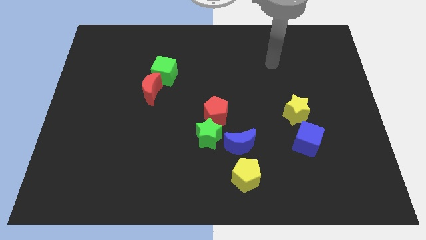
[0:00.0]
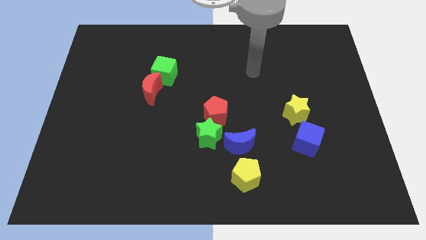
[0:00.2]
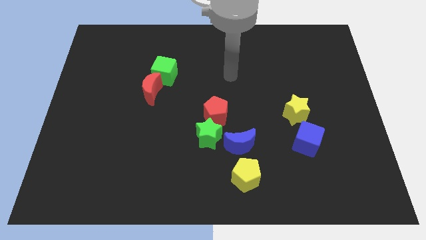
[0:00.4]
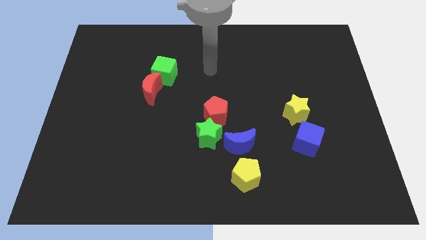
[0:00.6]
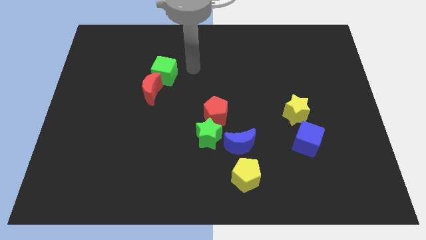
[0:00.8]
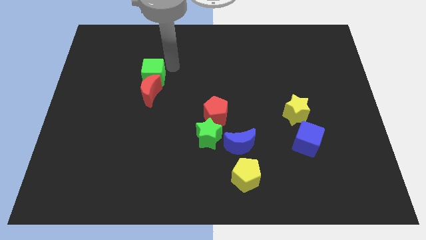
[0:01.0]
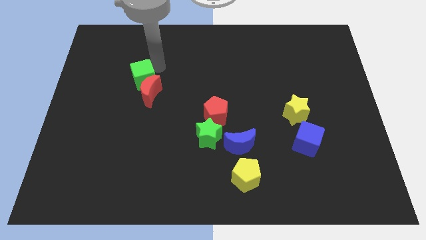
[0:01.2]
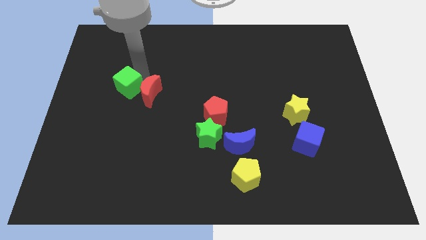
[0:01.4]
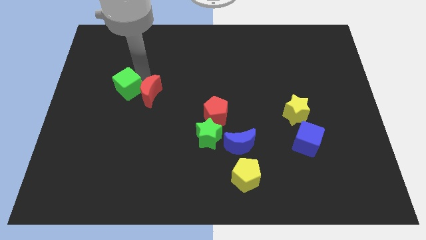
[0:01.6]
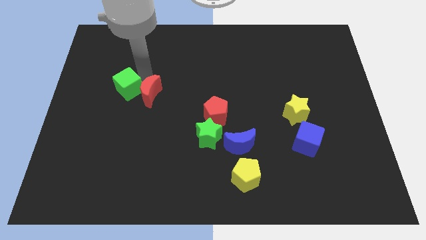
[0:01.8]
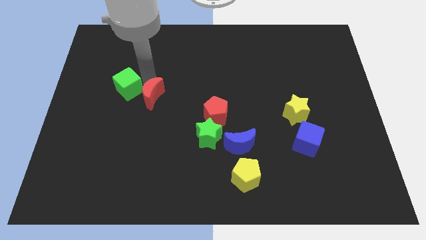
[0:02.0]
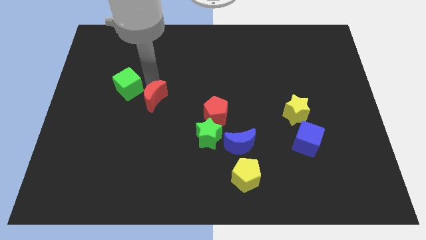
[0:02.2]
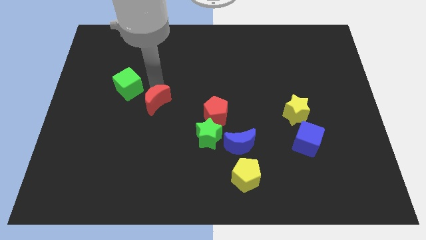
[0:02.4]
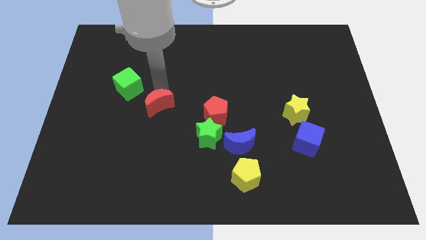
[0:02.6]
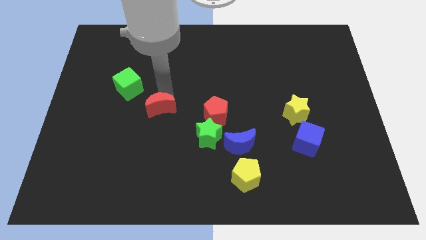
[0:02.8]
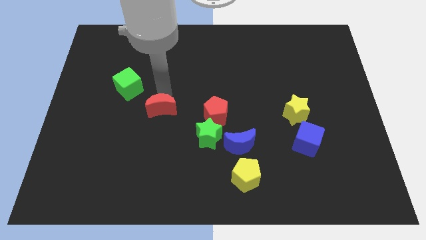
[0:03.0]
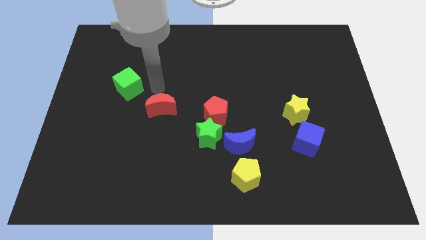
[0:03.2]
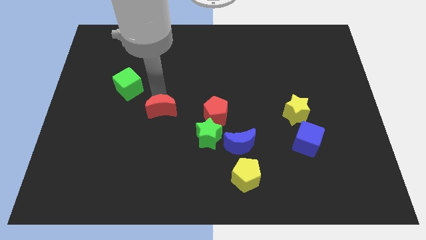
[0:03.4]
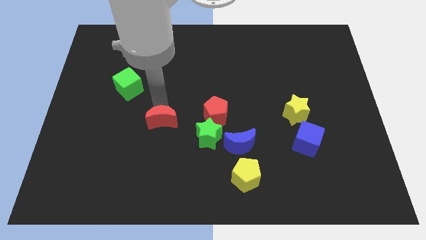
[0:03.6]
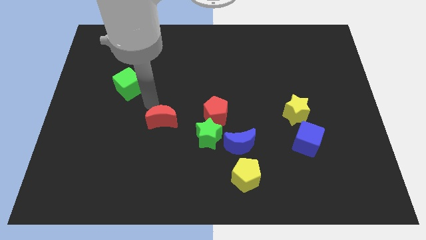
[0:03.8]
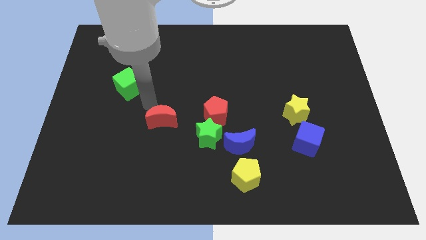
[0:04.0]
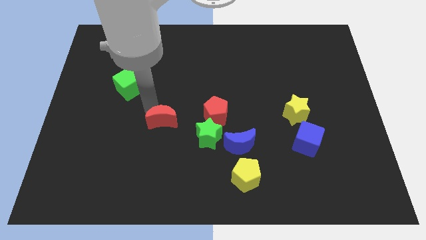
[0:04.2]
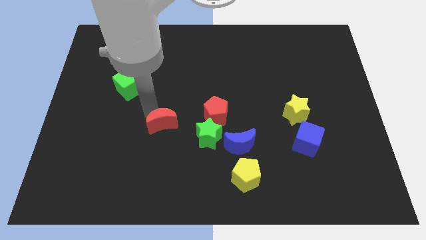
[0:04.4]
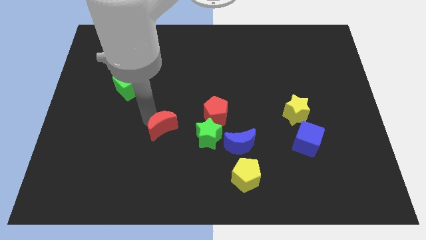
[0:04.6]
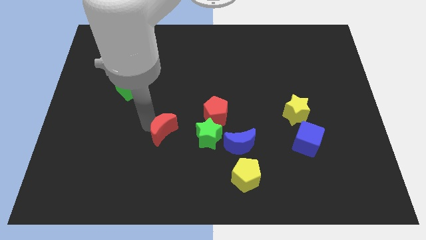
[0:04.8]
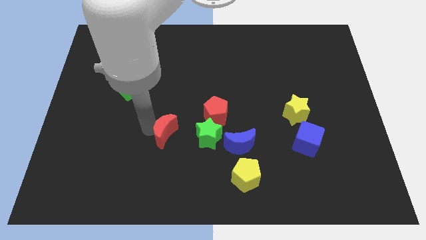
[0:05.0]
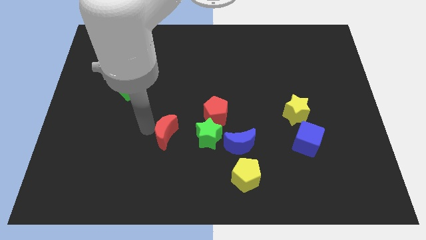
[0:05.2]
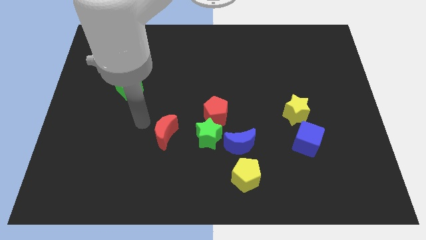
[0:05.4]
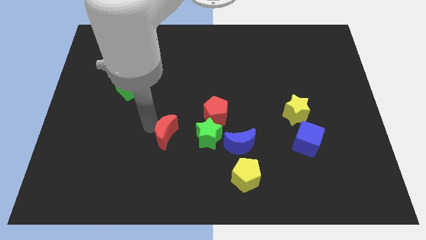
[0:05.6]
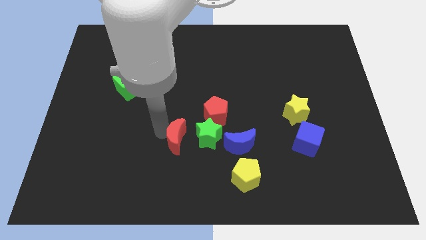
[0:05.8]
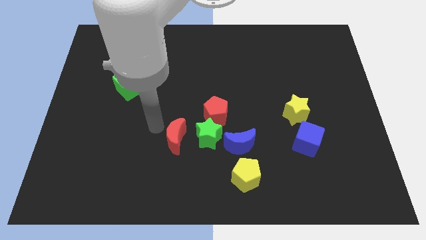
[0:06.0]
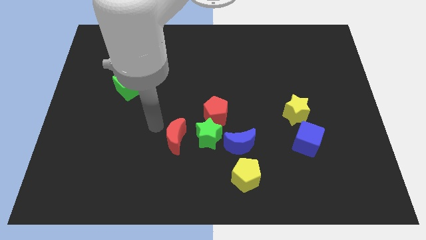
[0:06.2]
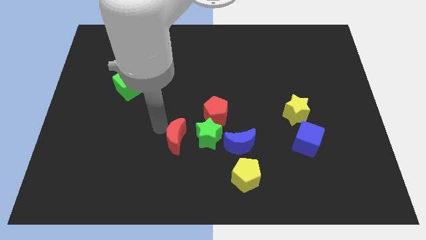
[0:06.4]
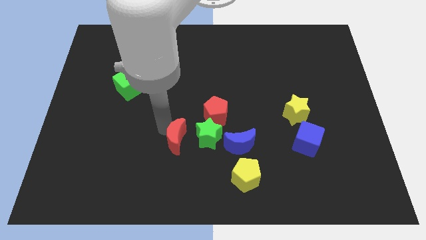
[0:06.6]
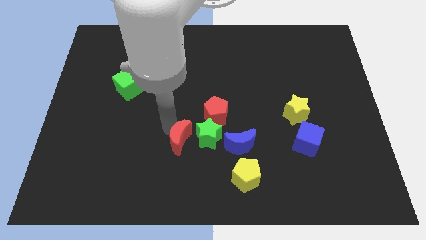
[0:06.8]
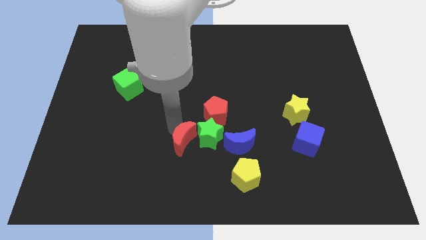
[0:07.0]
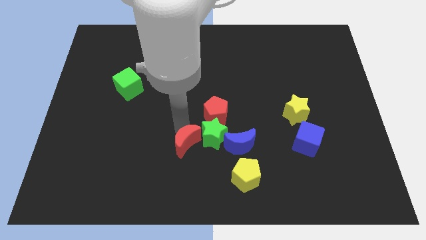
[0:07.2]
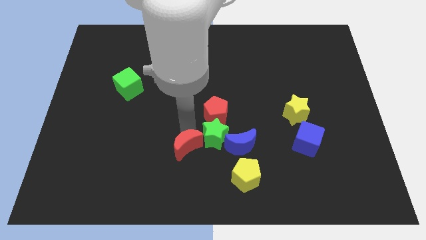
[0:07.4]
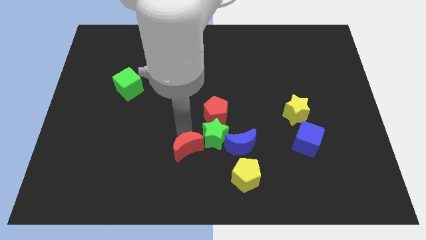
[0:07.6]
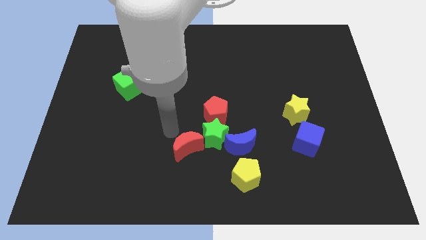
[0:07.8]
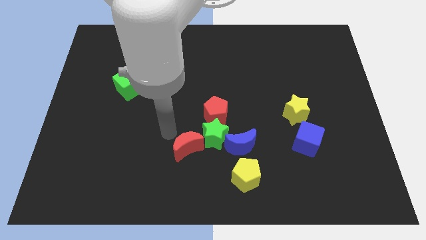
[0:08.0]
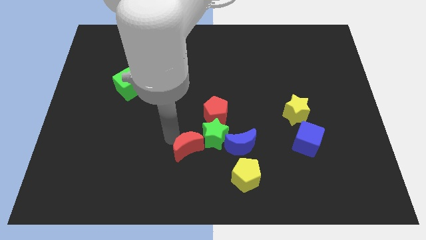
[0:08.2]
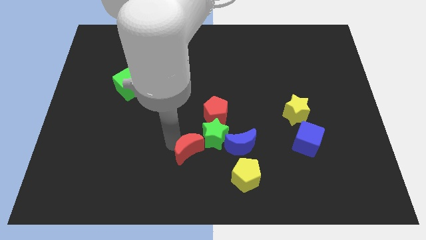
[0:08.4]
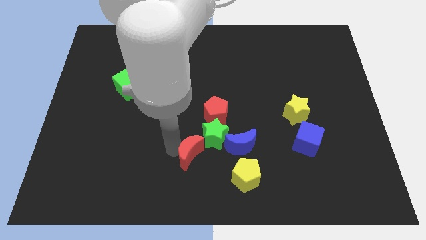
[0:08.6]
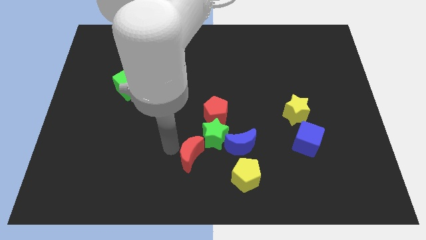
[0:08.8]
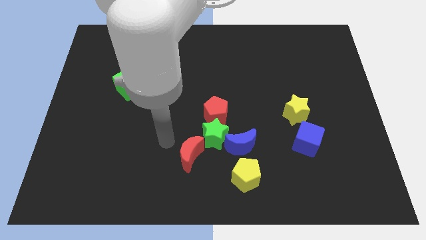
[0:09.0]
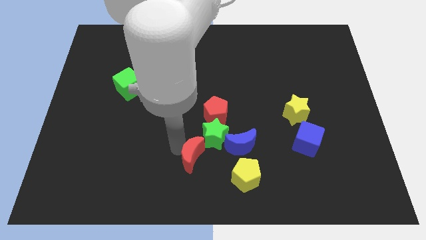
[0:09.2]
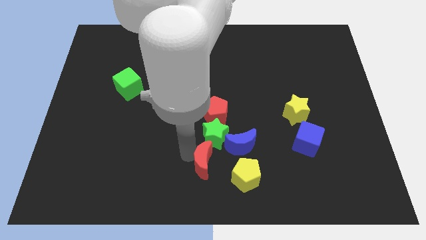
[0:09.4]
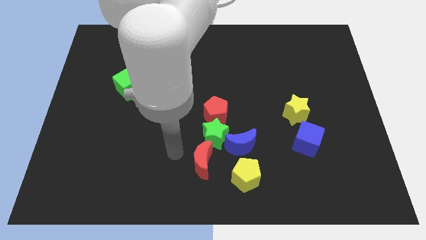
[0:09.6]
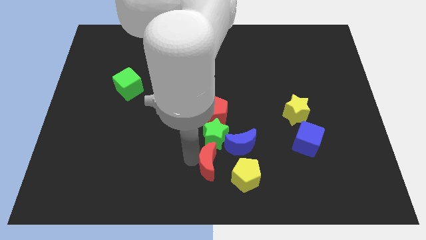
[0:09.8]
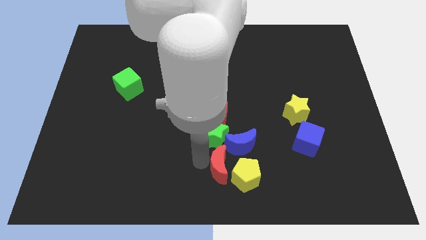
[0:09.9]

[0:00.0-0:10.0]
move the red moon to the yellow pentagon

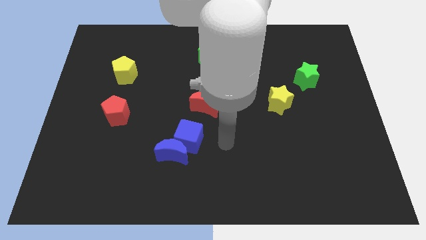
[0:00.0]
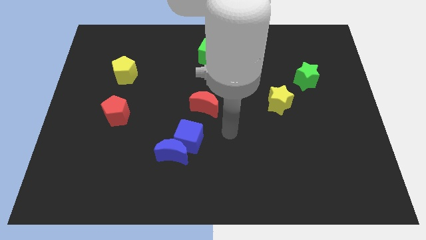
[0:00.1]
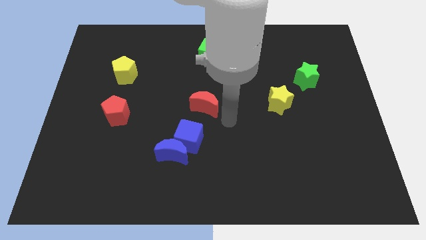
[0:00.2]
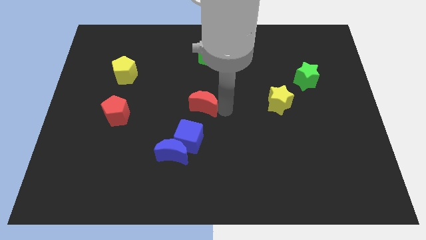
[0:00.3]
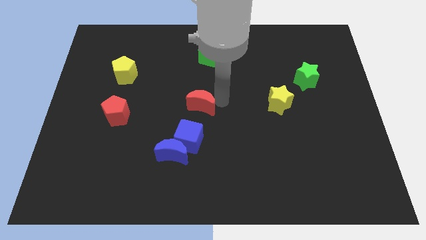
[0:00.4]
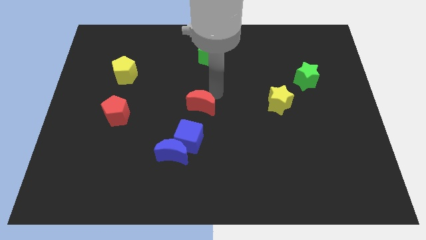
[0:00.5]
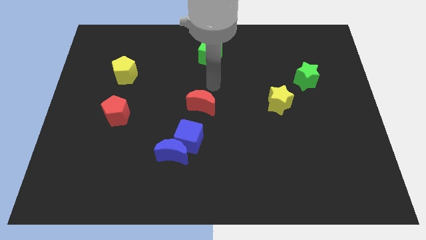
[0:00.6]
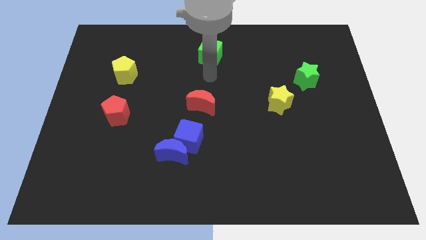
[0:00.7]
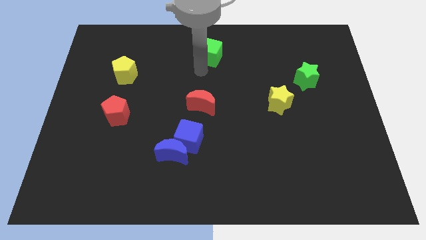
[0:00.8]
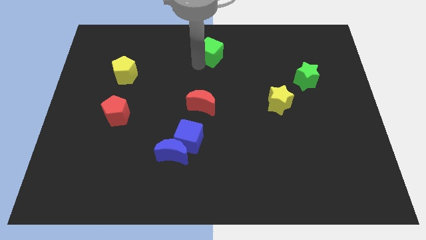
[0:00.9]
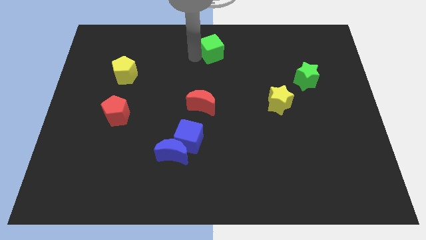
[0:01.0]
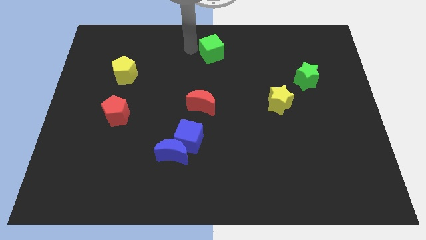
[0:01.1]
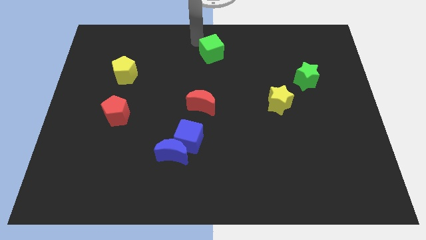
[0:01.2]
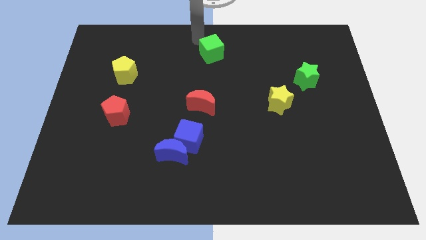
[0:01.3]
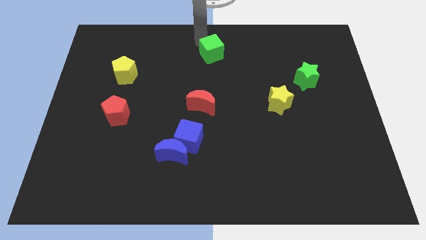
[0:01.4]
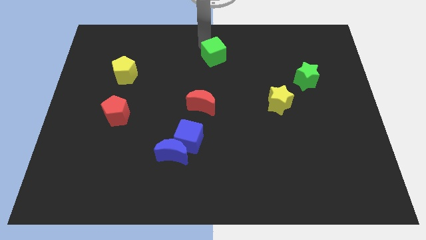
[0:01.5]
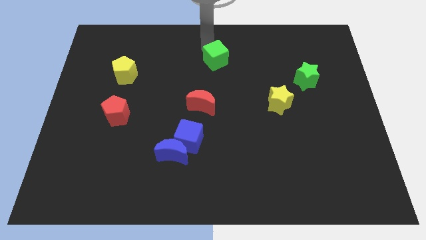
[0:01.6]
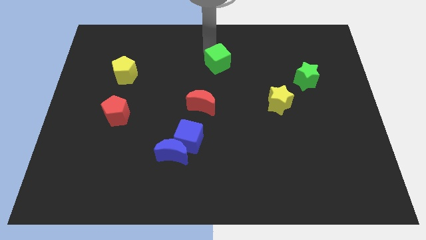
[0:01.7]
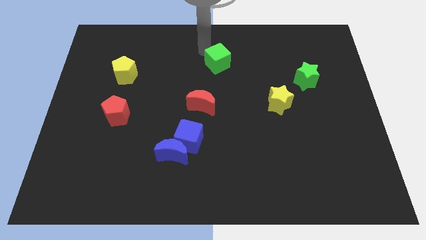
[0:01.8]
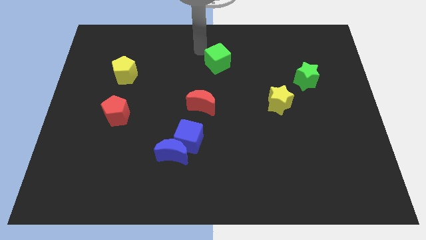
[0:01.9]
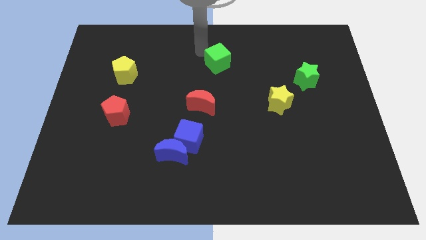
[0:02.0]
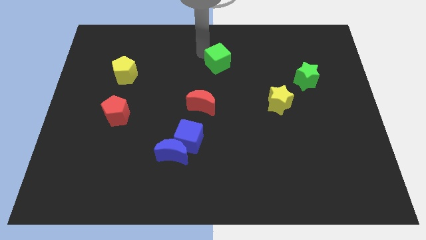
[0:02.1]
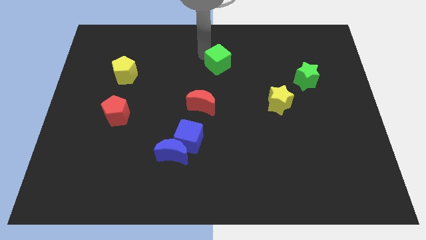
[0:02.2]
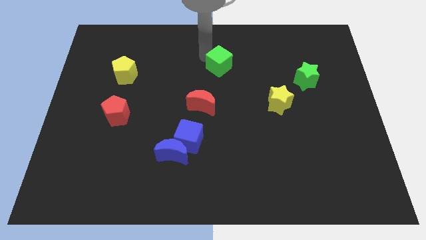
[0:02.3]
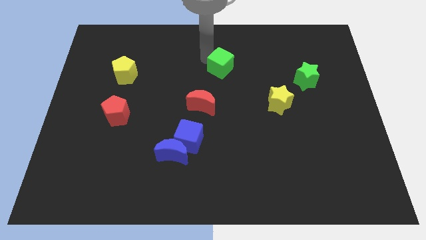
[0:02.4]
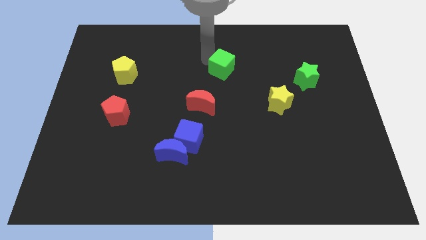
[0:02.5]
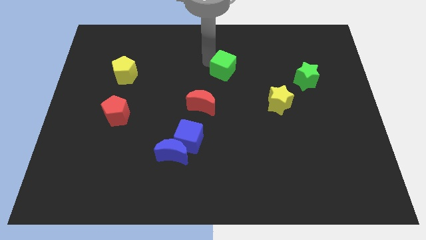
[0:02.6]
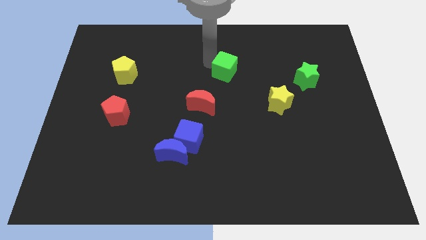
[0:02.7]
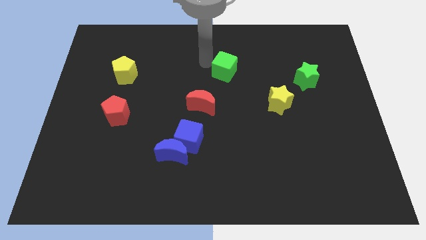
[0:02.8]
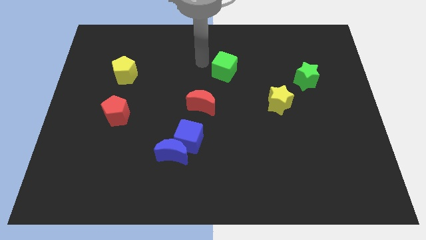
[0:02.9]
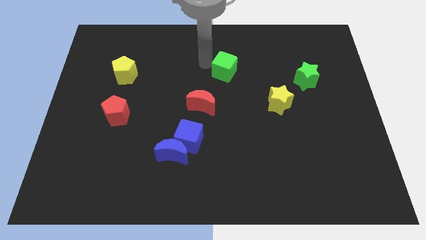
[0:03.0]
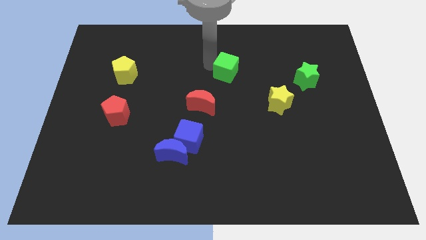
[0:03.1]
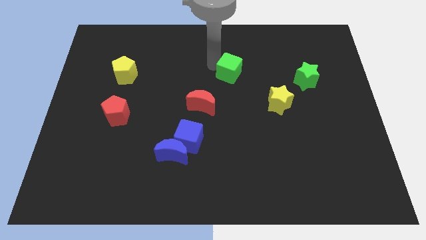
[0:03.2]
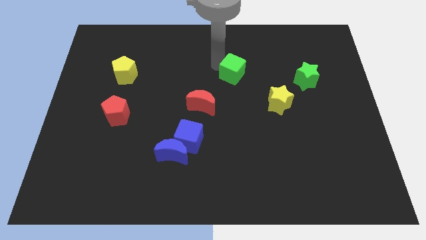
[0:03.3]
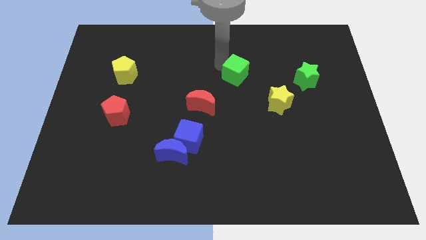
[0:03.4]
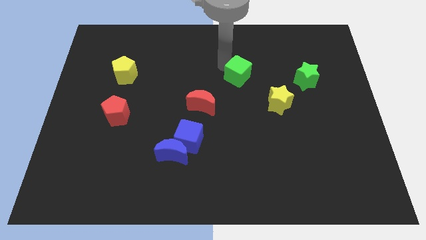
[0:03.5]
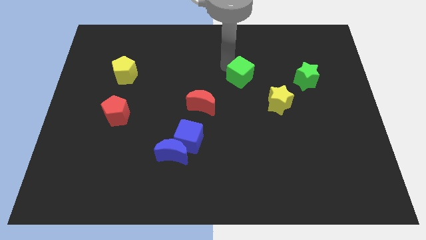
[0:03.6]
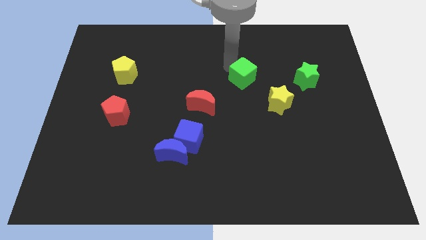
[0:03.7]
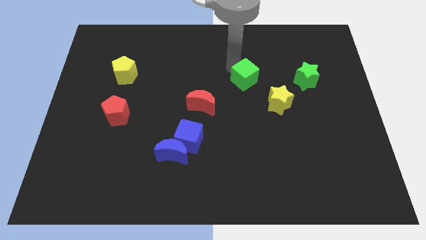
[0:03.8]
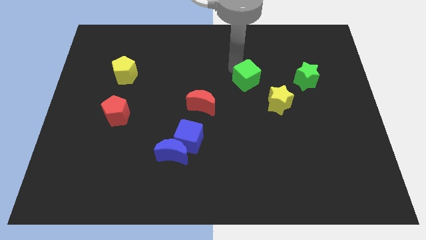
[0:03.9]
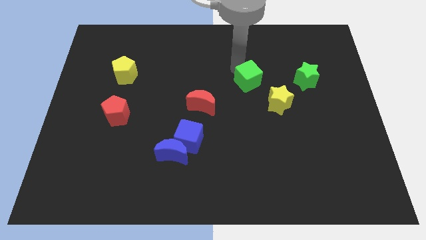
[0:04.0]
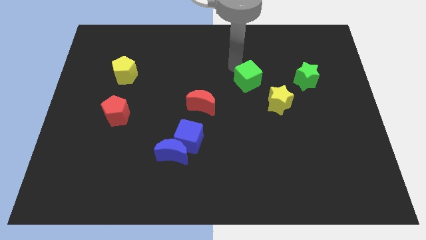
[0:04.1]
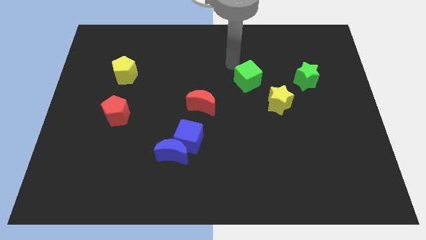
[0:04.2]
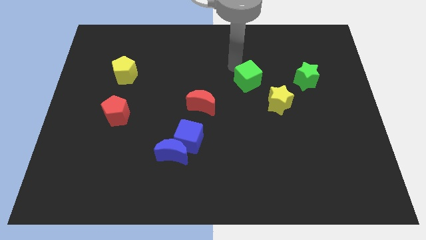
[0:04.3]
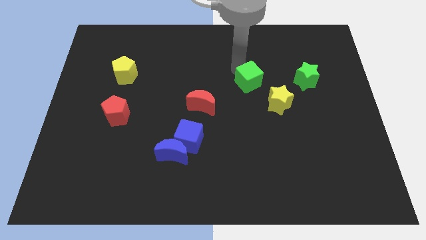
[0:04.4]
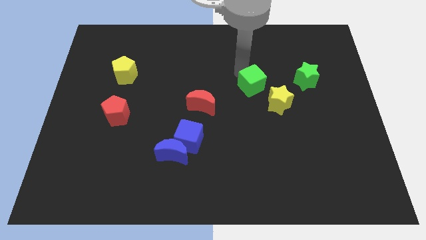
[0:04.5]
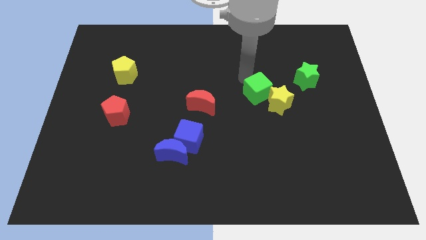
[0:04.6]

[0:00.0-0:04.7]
push the green cube to the yellow star
